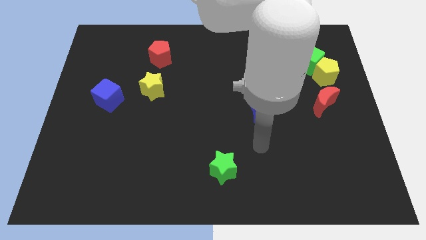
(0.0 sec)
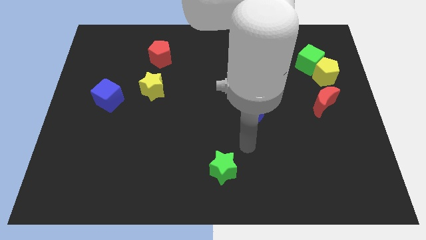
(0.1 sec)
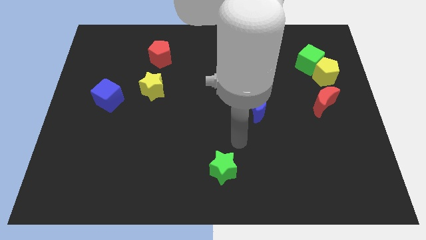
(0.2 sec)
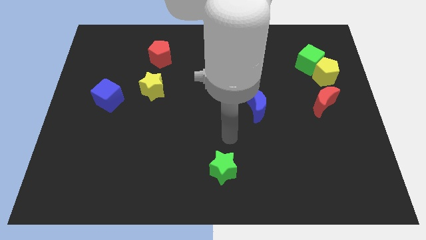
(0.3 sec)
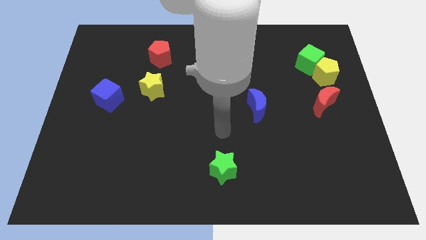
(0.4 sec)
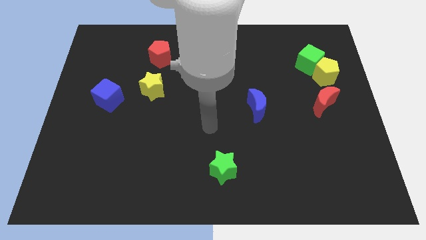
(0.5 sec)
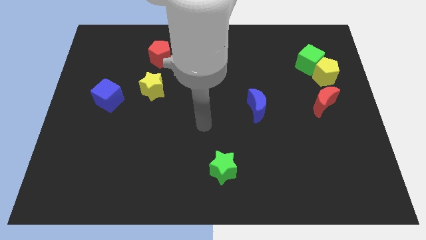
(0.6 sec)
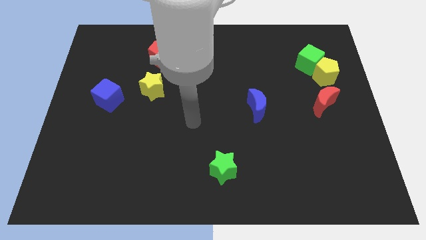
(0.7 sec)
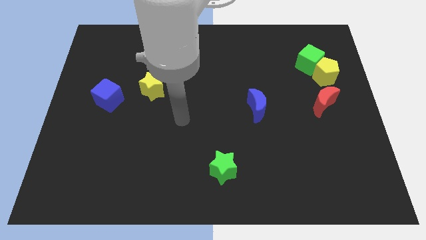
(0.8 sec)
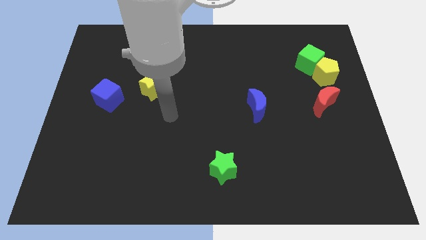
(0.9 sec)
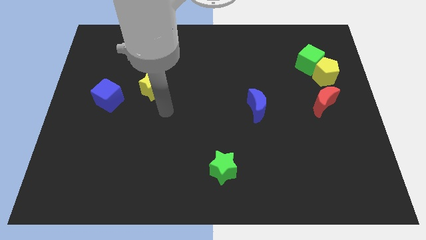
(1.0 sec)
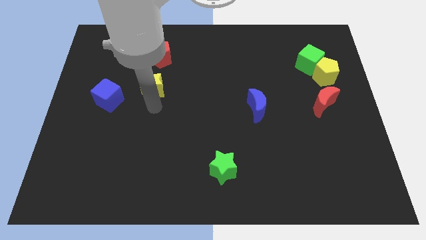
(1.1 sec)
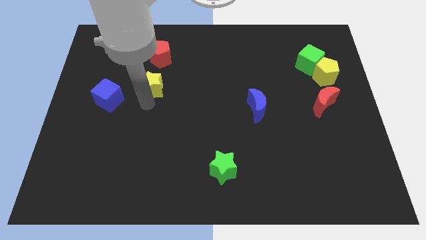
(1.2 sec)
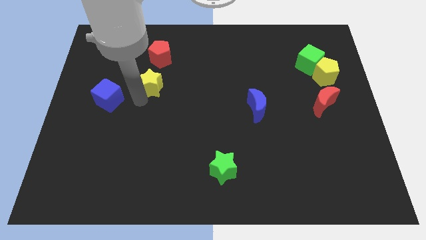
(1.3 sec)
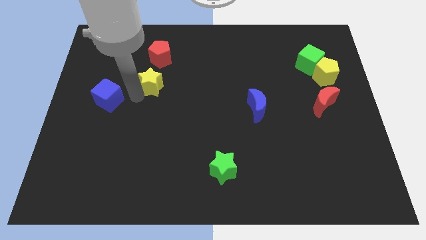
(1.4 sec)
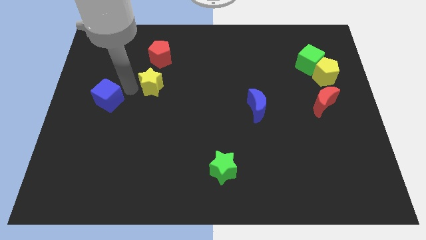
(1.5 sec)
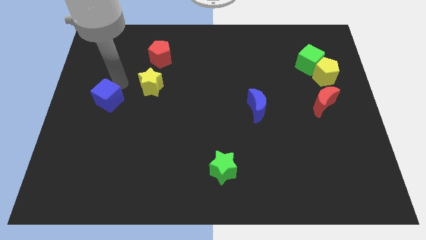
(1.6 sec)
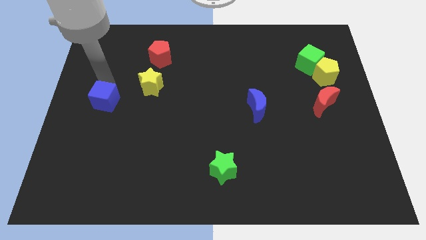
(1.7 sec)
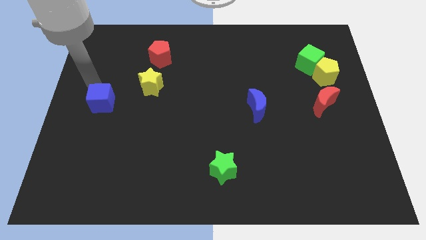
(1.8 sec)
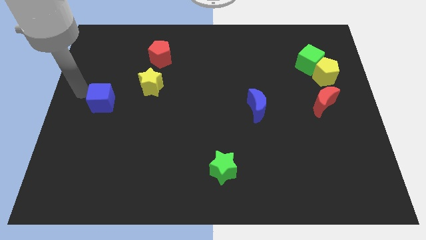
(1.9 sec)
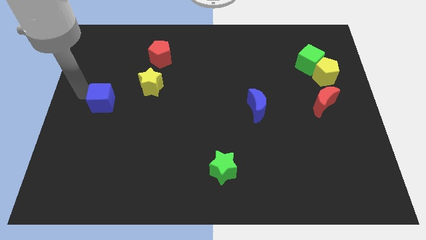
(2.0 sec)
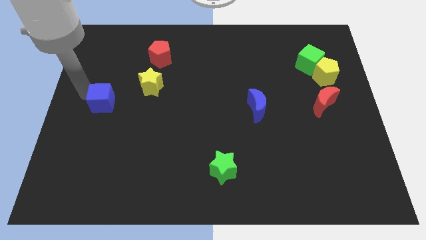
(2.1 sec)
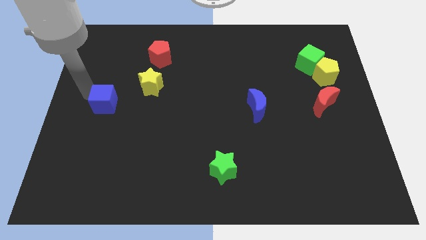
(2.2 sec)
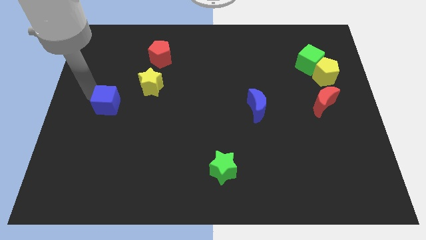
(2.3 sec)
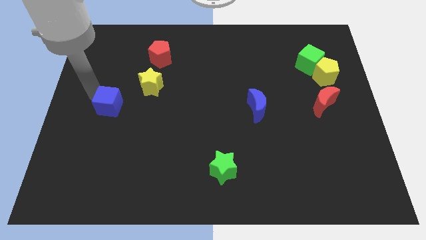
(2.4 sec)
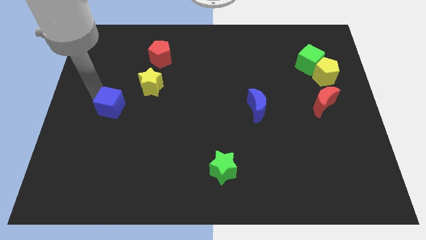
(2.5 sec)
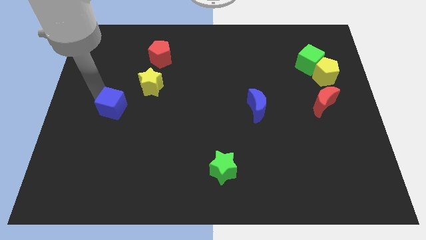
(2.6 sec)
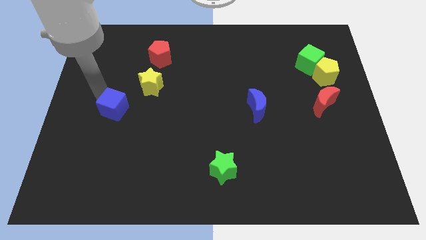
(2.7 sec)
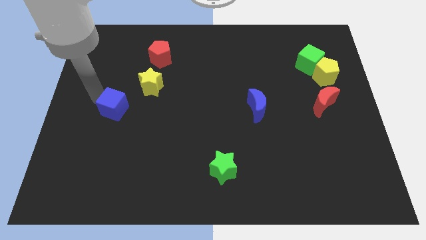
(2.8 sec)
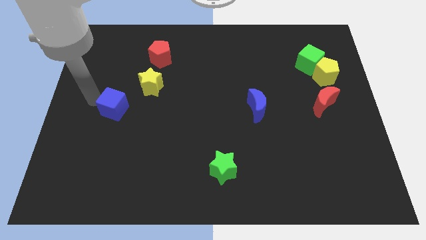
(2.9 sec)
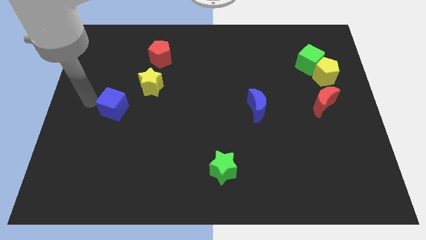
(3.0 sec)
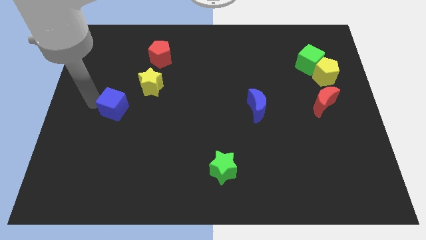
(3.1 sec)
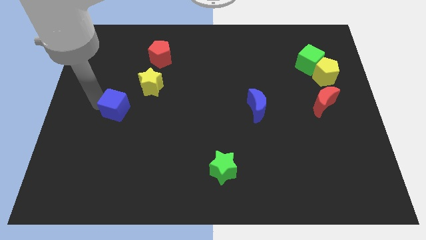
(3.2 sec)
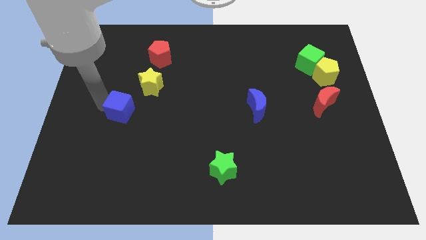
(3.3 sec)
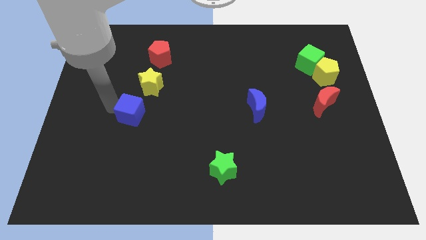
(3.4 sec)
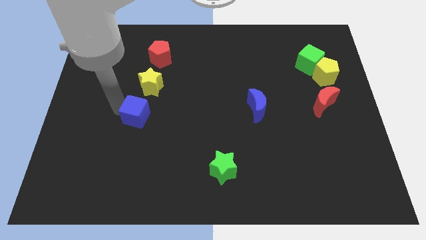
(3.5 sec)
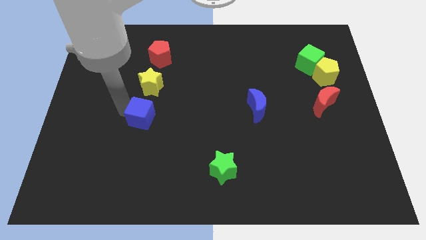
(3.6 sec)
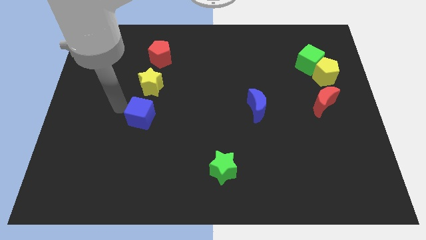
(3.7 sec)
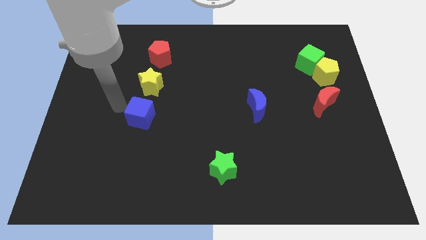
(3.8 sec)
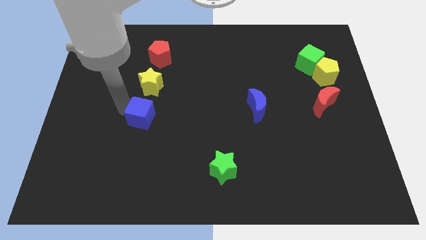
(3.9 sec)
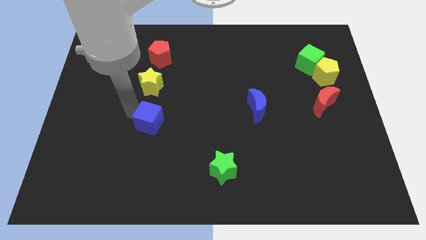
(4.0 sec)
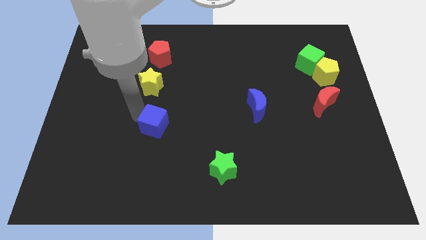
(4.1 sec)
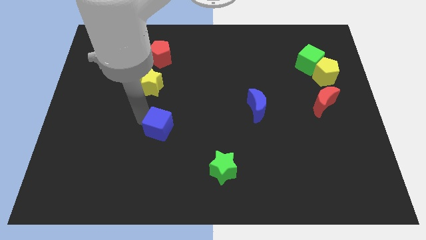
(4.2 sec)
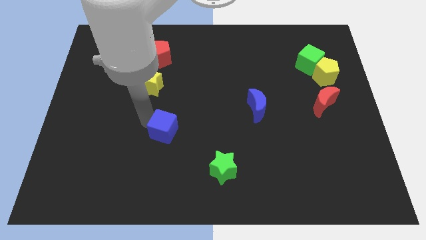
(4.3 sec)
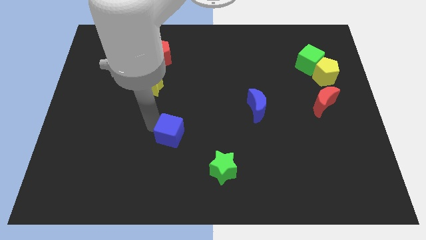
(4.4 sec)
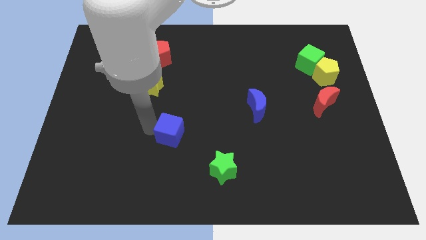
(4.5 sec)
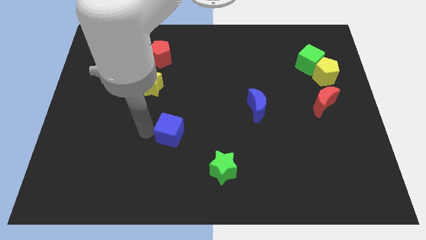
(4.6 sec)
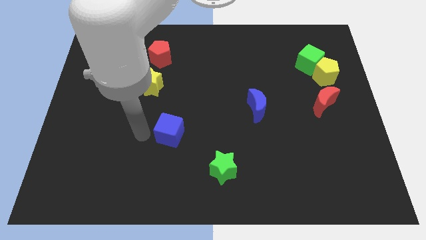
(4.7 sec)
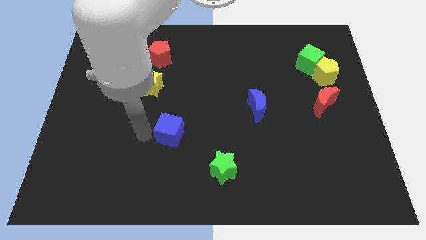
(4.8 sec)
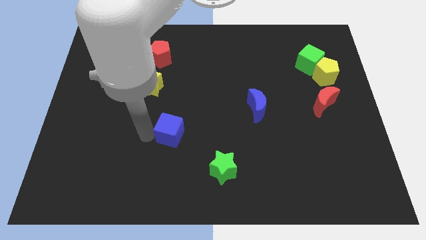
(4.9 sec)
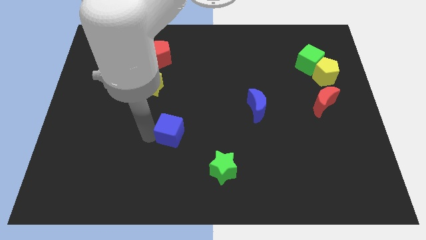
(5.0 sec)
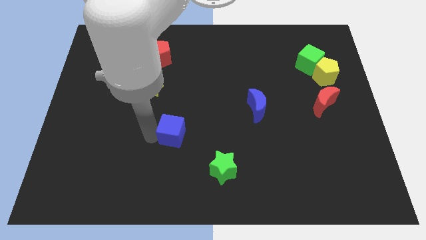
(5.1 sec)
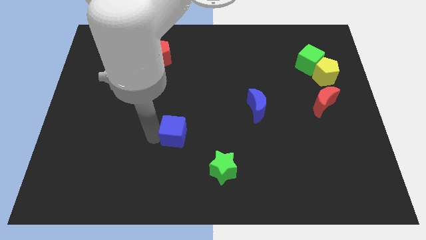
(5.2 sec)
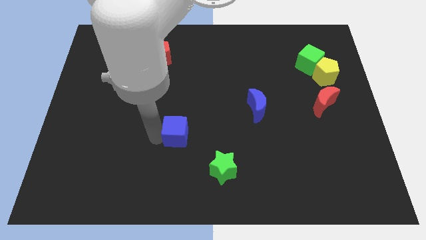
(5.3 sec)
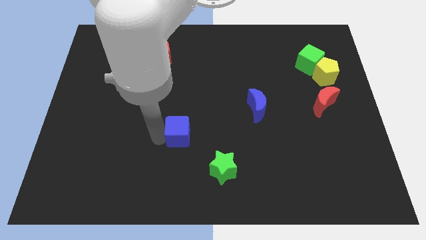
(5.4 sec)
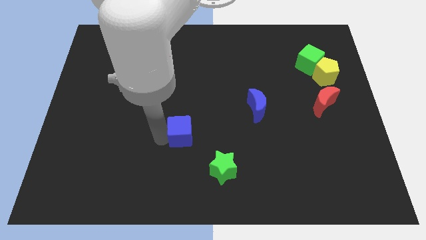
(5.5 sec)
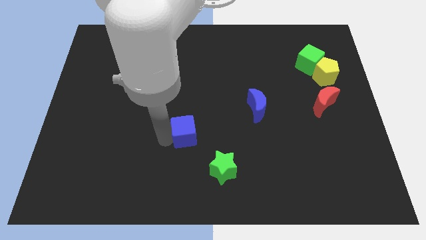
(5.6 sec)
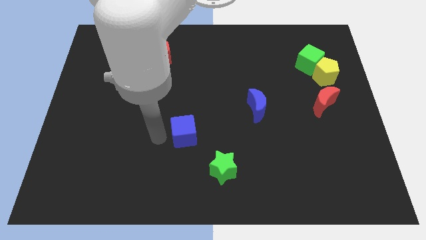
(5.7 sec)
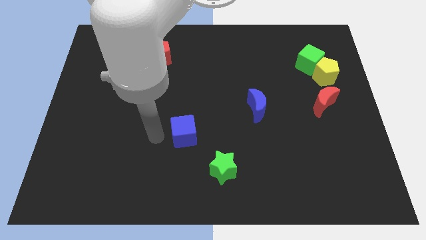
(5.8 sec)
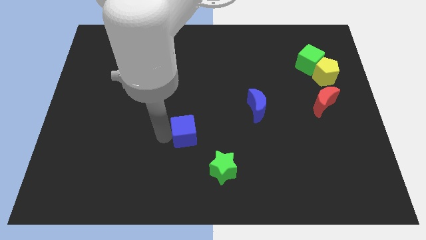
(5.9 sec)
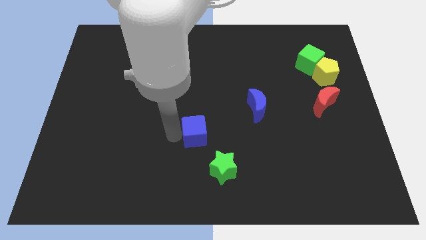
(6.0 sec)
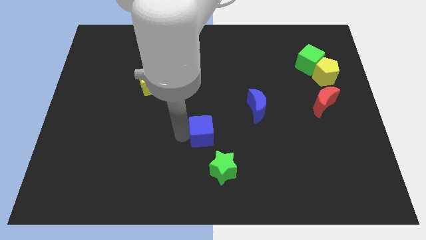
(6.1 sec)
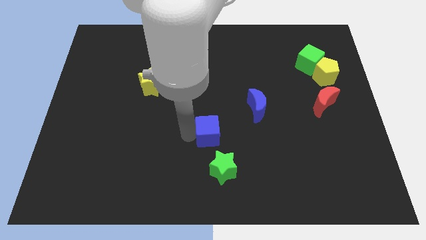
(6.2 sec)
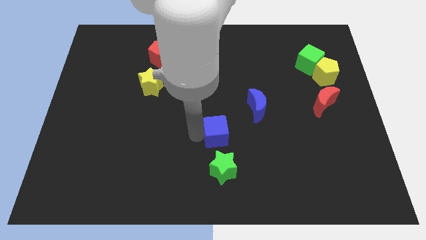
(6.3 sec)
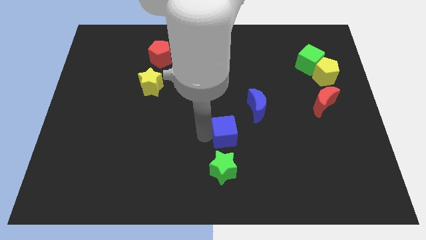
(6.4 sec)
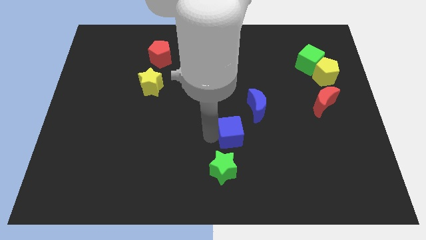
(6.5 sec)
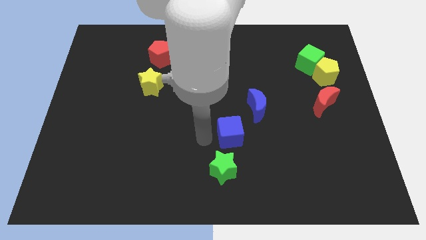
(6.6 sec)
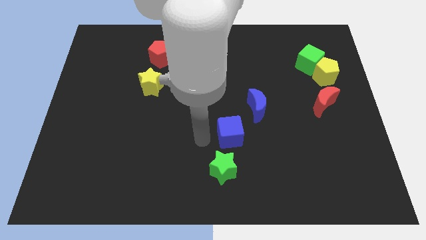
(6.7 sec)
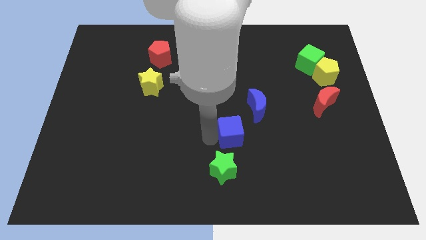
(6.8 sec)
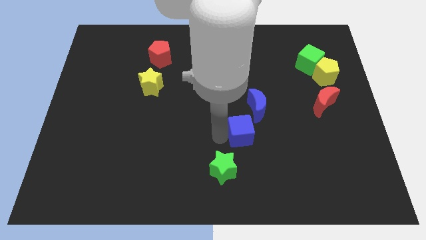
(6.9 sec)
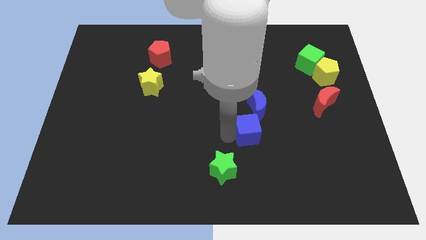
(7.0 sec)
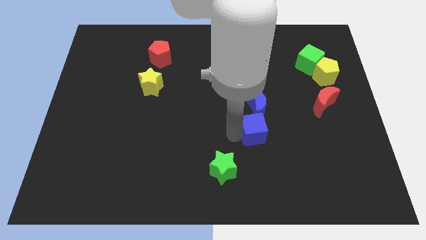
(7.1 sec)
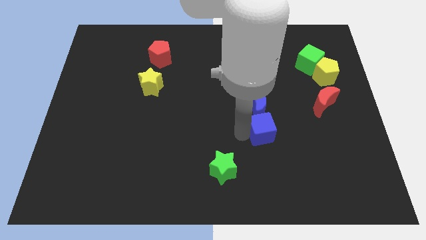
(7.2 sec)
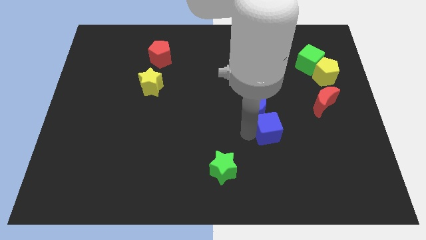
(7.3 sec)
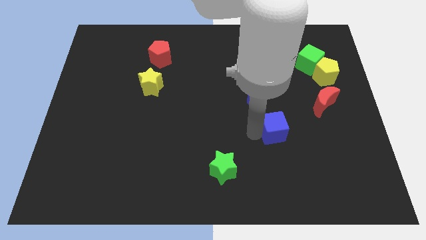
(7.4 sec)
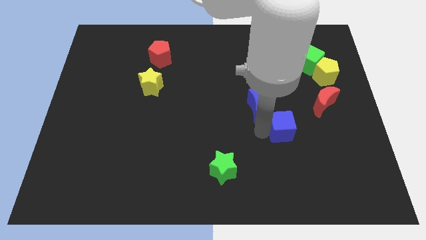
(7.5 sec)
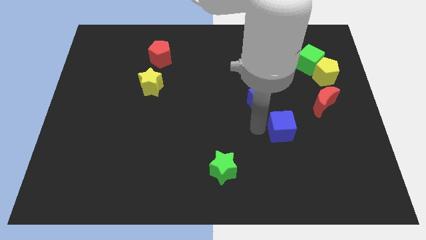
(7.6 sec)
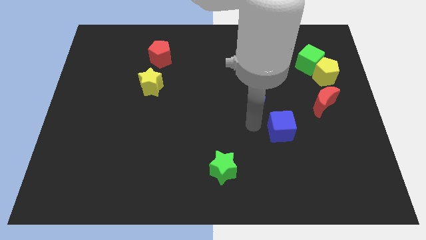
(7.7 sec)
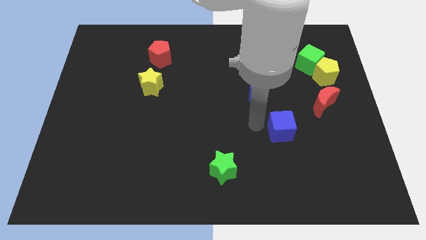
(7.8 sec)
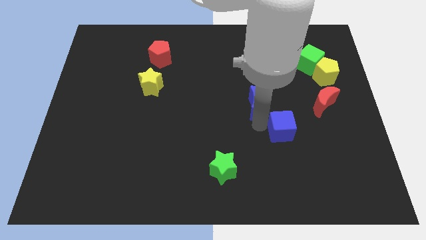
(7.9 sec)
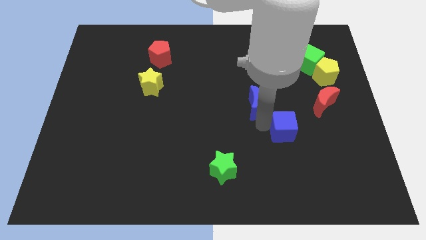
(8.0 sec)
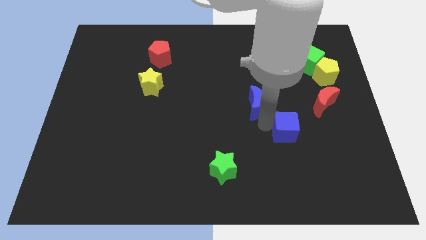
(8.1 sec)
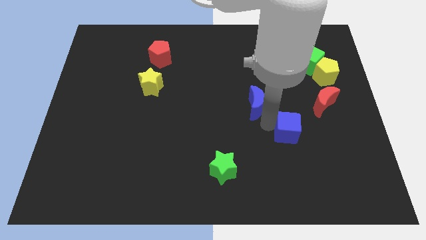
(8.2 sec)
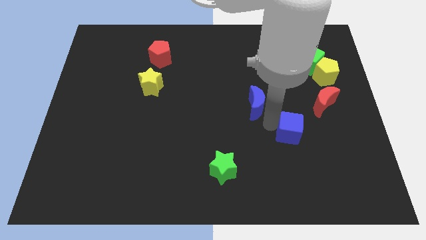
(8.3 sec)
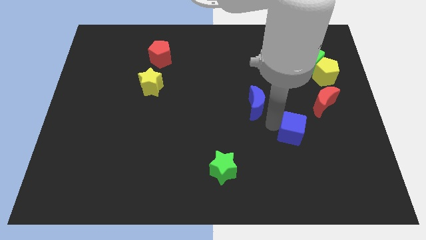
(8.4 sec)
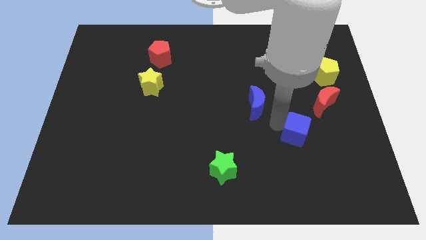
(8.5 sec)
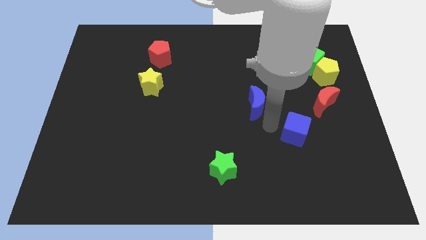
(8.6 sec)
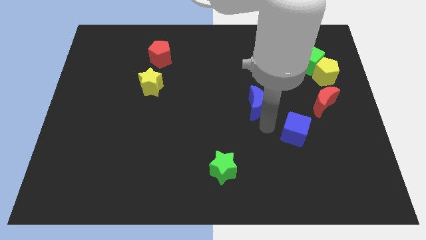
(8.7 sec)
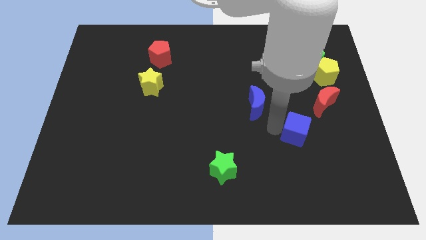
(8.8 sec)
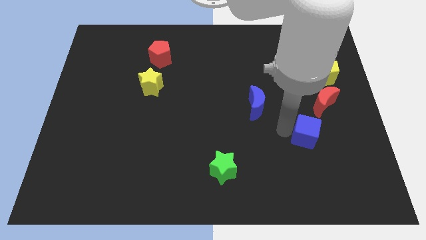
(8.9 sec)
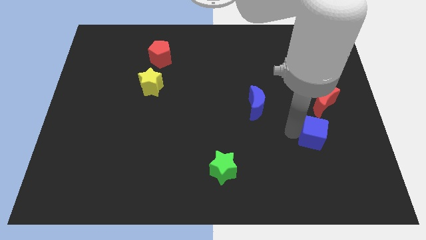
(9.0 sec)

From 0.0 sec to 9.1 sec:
slide the blue cube to the bottom side of the red moon
